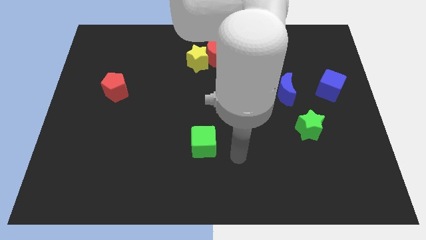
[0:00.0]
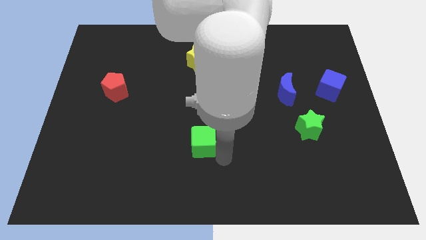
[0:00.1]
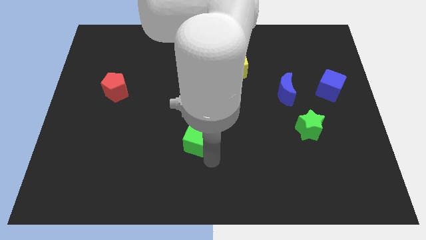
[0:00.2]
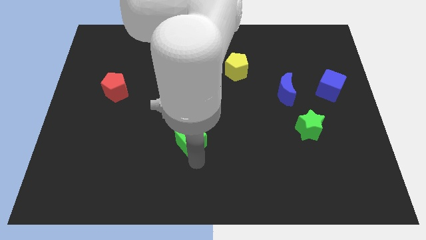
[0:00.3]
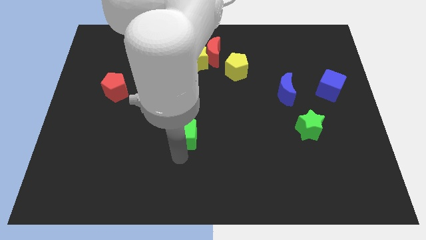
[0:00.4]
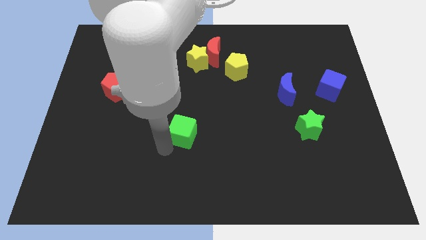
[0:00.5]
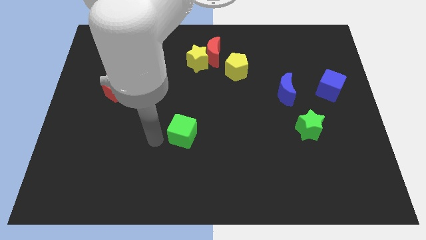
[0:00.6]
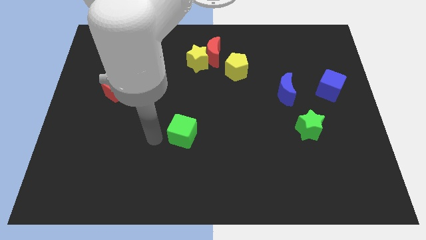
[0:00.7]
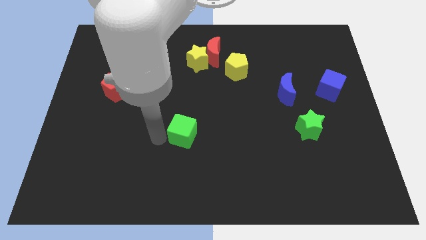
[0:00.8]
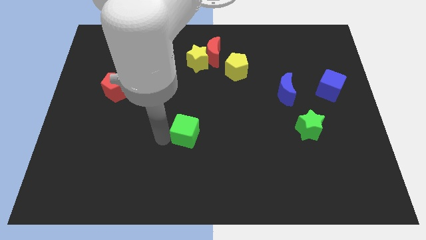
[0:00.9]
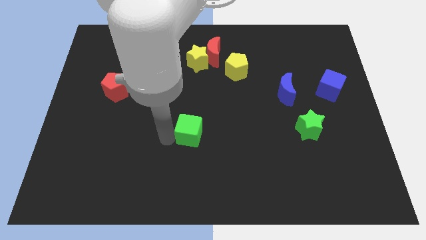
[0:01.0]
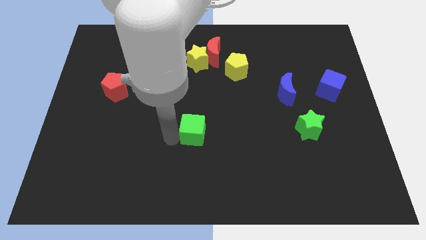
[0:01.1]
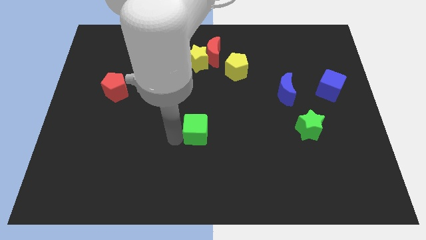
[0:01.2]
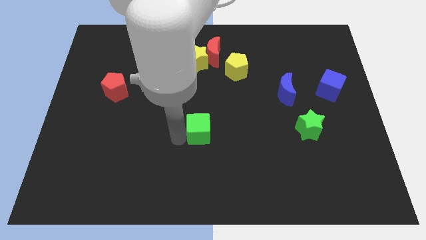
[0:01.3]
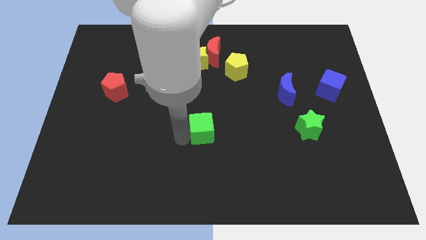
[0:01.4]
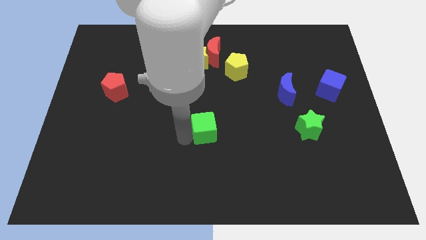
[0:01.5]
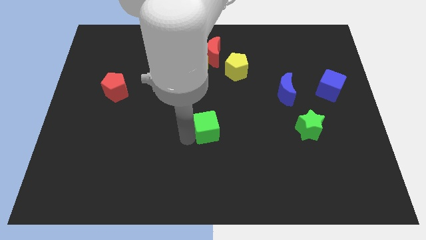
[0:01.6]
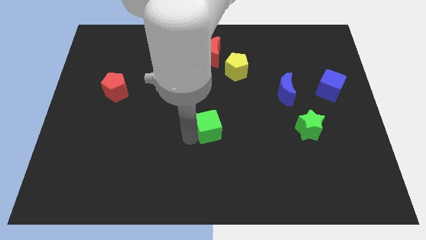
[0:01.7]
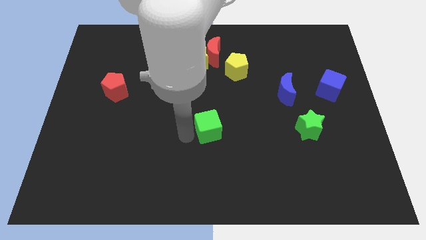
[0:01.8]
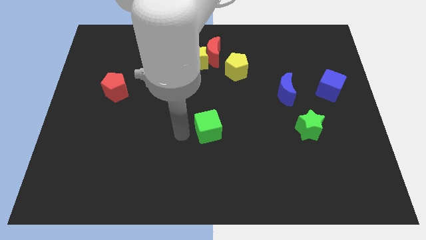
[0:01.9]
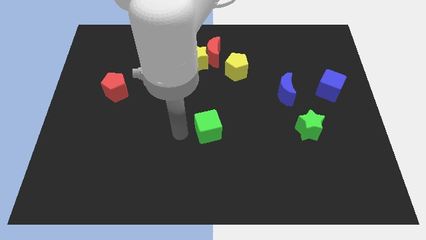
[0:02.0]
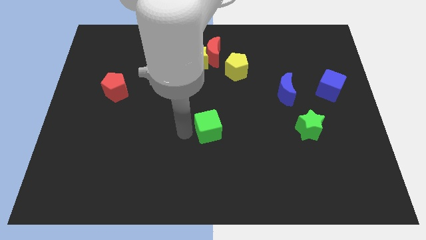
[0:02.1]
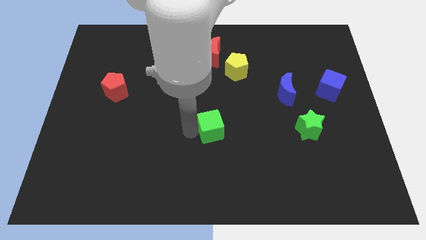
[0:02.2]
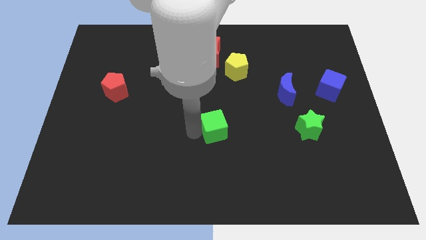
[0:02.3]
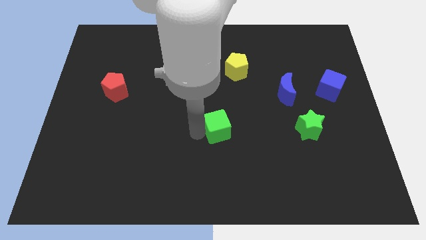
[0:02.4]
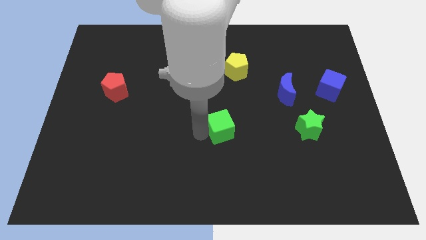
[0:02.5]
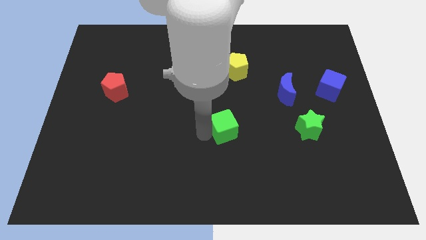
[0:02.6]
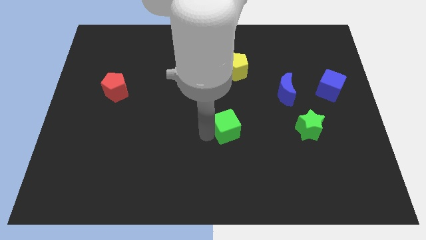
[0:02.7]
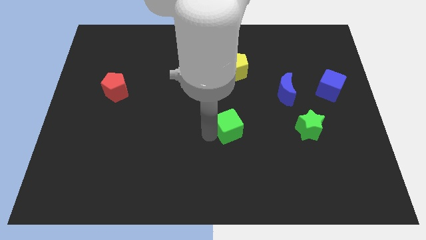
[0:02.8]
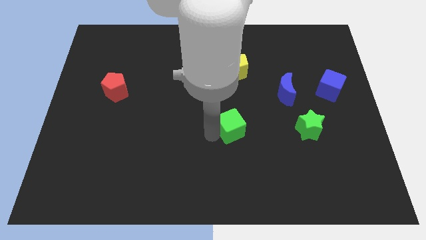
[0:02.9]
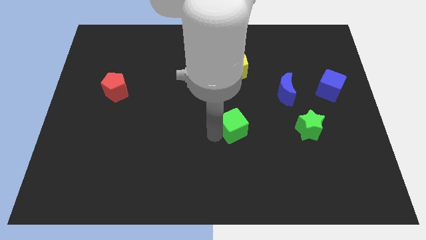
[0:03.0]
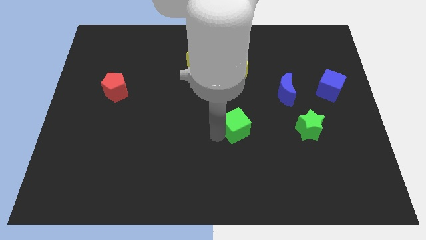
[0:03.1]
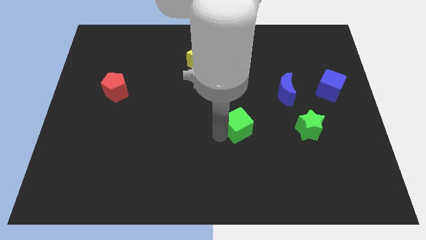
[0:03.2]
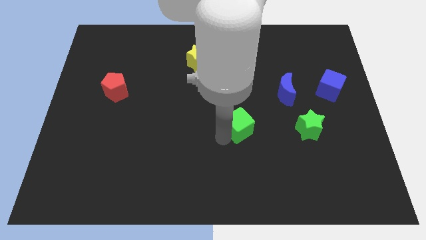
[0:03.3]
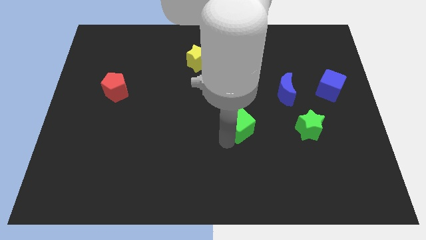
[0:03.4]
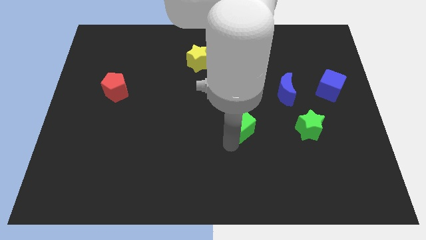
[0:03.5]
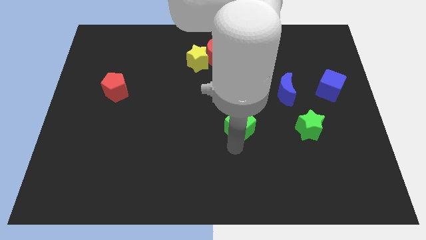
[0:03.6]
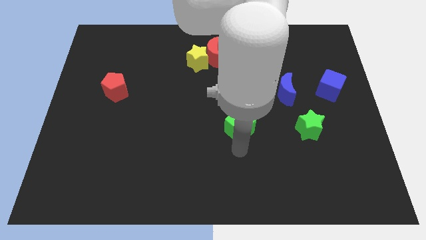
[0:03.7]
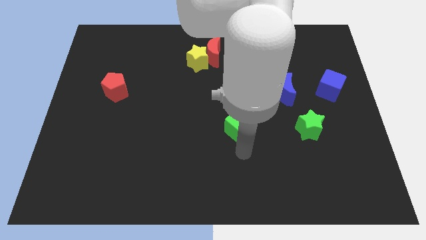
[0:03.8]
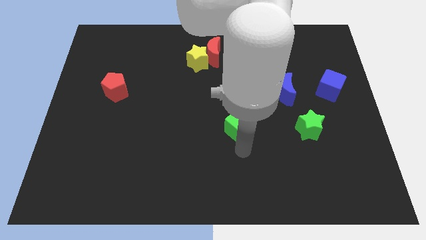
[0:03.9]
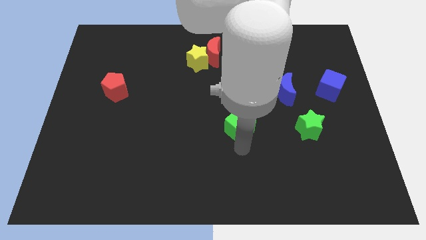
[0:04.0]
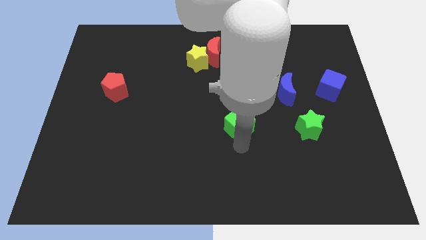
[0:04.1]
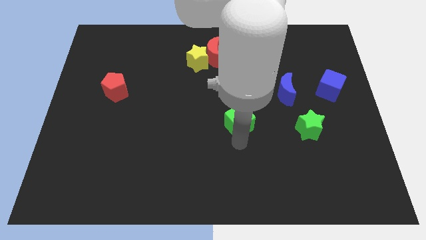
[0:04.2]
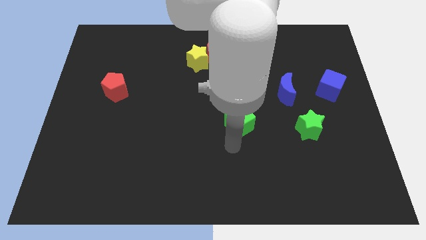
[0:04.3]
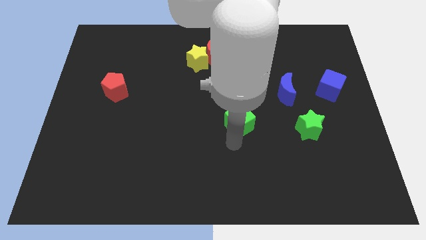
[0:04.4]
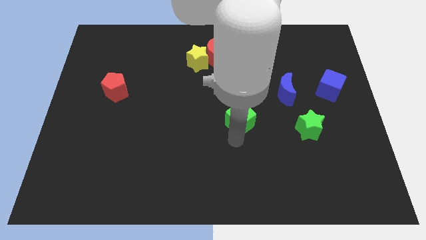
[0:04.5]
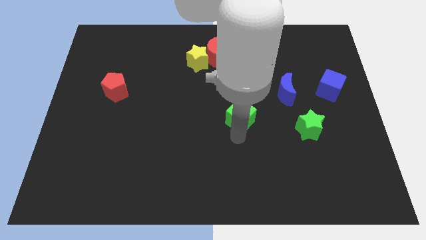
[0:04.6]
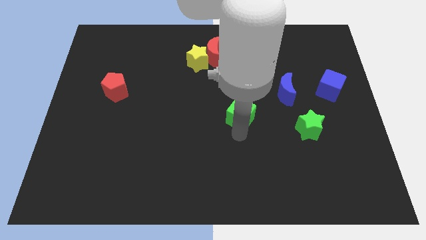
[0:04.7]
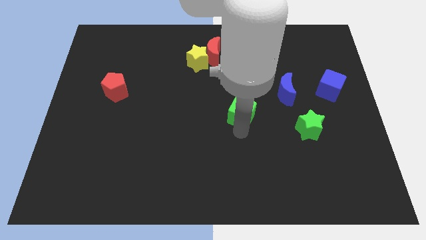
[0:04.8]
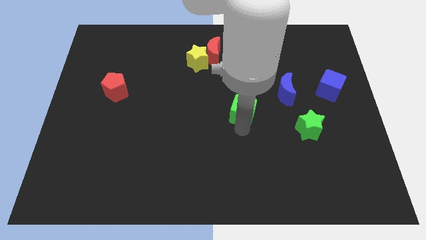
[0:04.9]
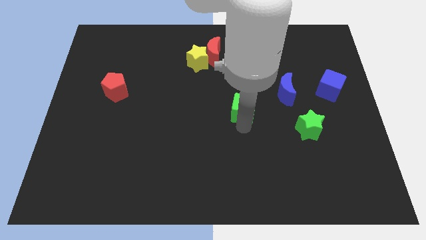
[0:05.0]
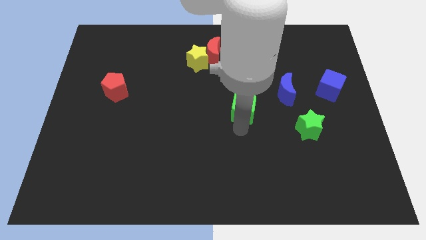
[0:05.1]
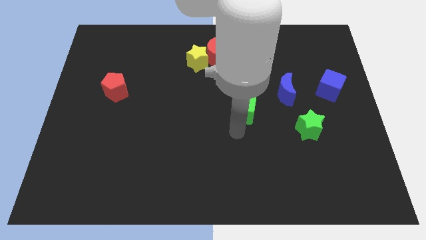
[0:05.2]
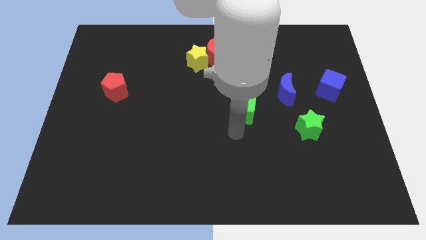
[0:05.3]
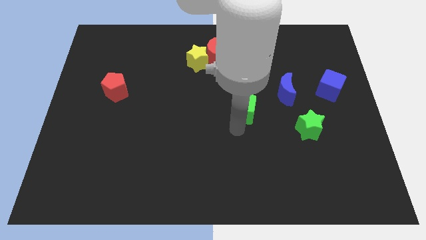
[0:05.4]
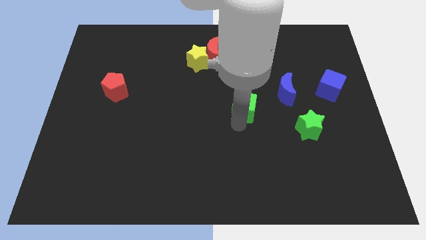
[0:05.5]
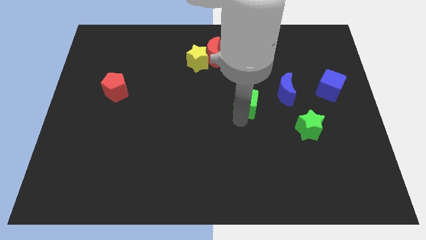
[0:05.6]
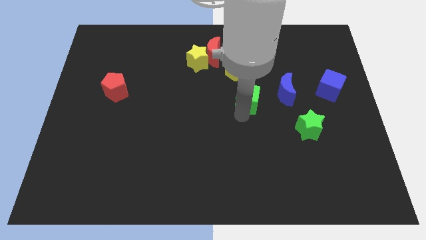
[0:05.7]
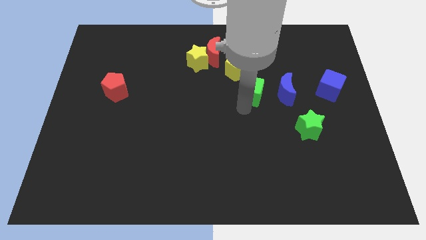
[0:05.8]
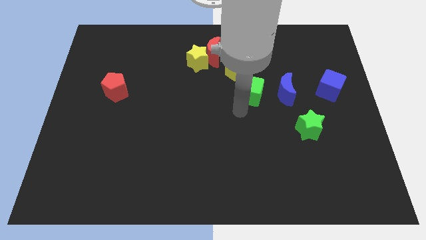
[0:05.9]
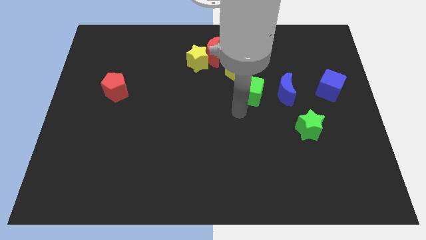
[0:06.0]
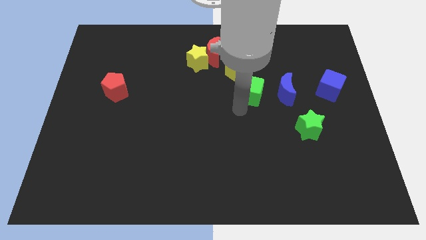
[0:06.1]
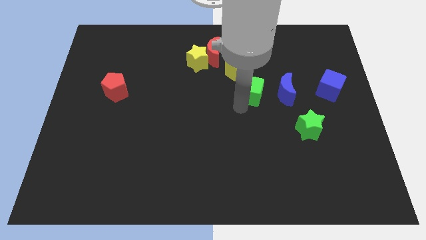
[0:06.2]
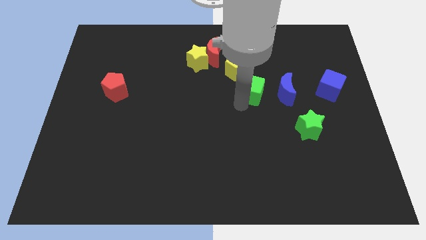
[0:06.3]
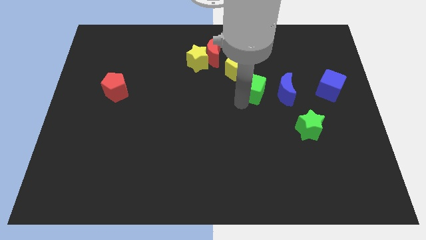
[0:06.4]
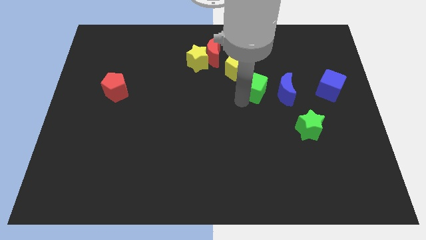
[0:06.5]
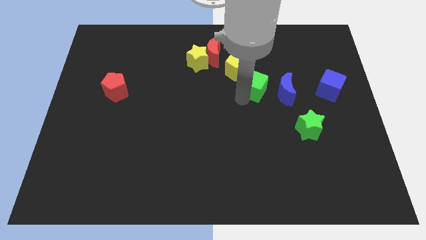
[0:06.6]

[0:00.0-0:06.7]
slide the green cube diagonally up and right

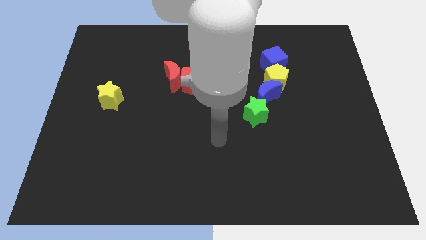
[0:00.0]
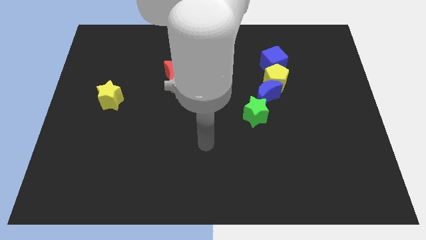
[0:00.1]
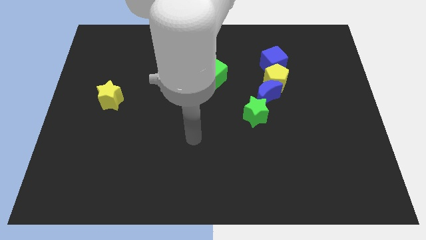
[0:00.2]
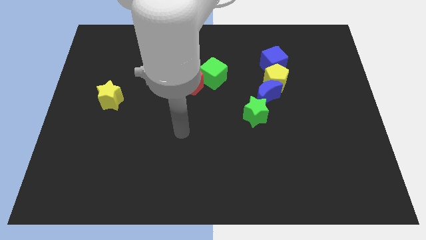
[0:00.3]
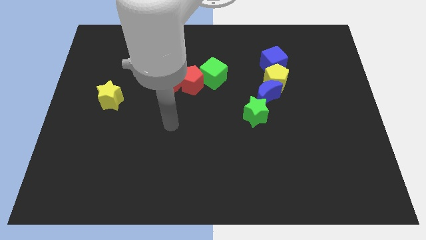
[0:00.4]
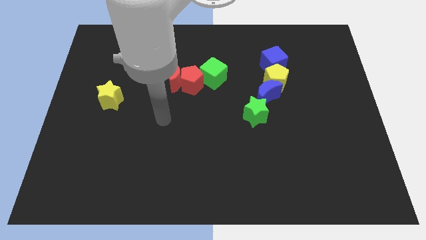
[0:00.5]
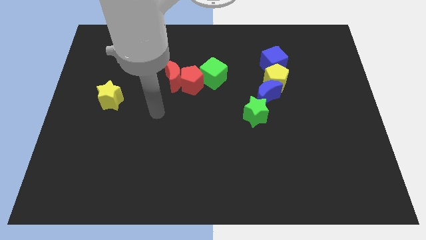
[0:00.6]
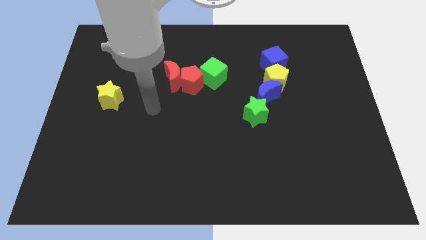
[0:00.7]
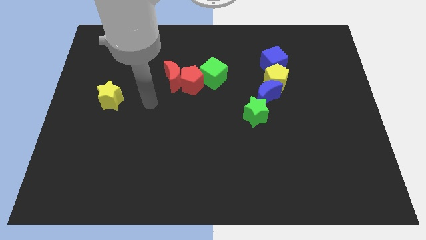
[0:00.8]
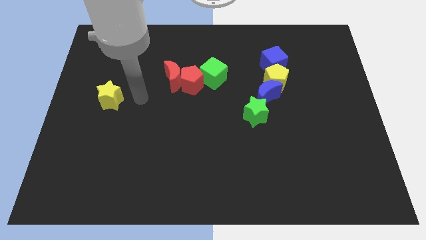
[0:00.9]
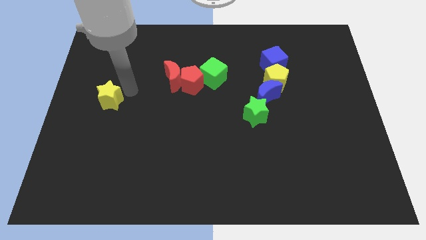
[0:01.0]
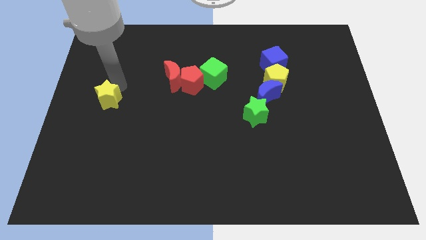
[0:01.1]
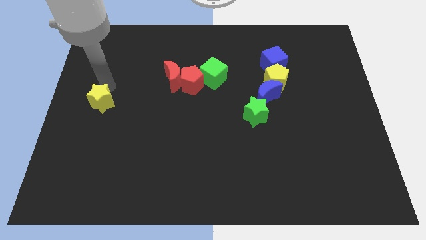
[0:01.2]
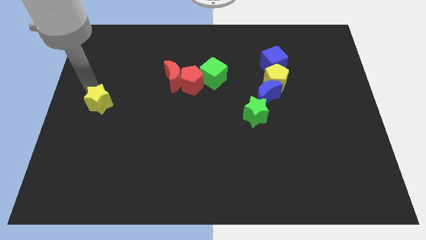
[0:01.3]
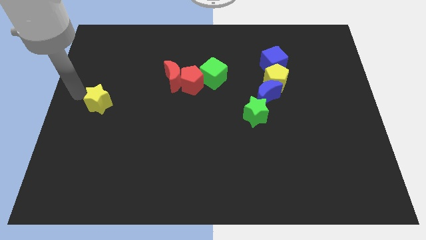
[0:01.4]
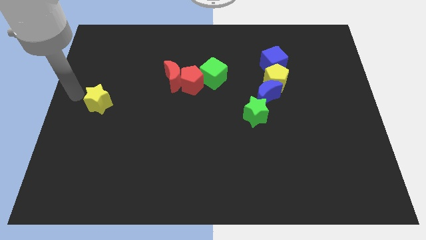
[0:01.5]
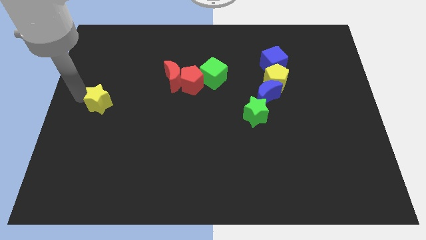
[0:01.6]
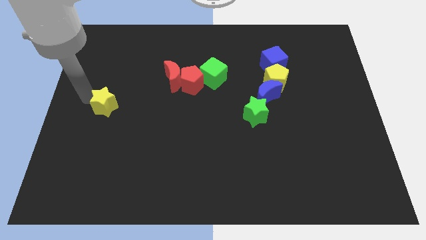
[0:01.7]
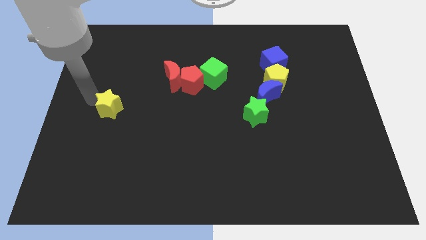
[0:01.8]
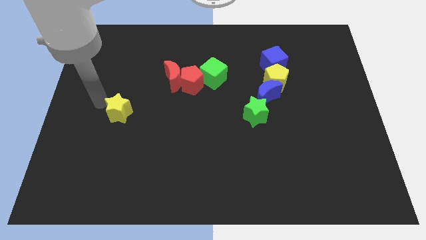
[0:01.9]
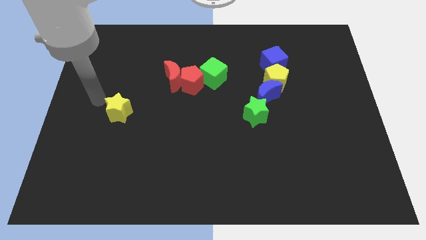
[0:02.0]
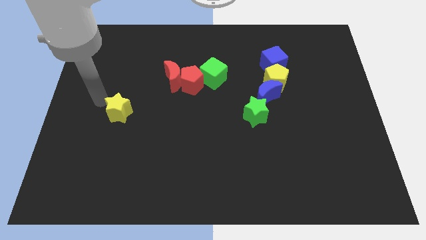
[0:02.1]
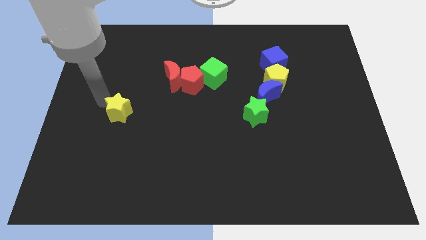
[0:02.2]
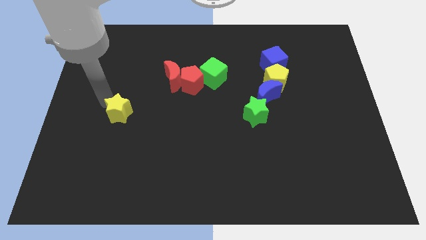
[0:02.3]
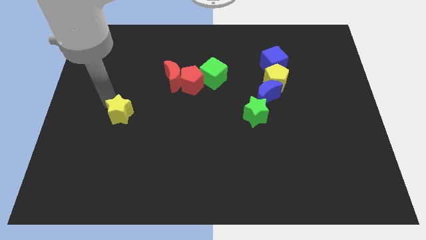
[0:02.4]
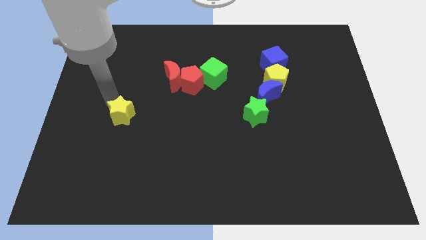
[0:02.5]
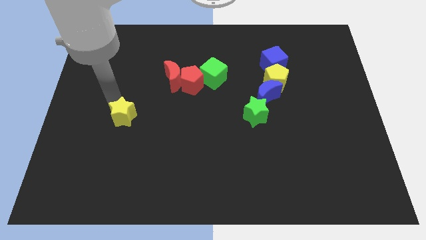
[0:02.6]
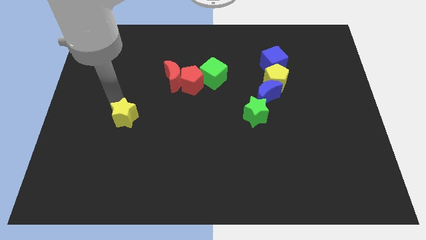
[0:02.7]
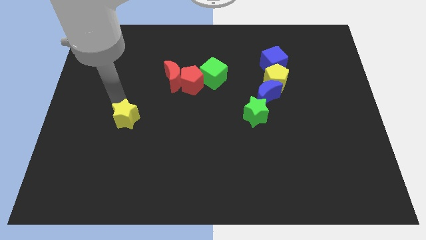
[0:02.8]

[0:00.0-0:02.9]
slightly move the yellow star down and right diagonally
